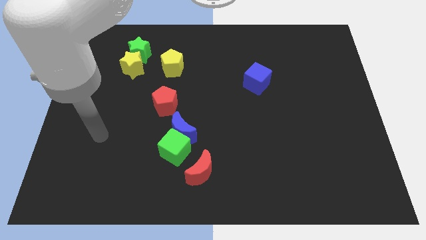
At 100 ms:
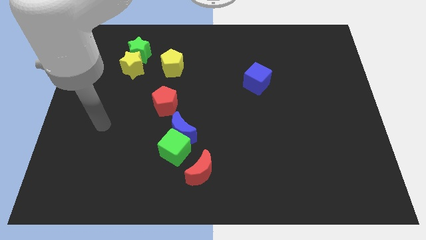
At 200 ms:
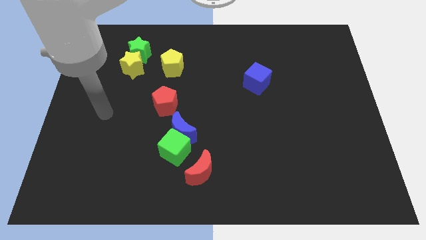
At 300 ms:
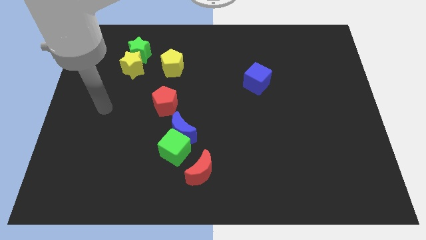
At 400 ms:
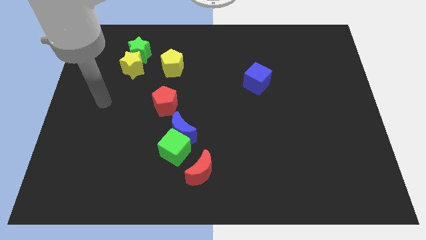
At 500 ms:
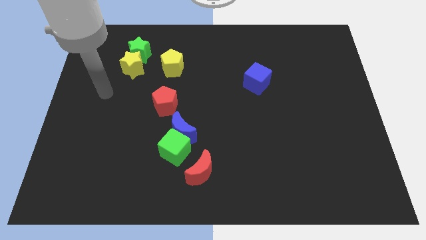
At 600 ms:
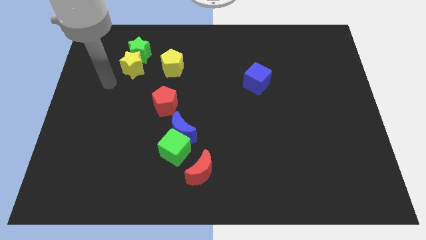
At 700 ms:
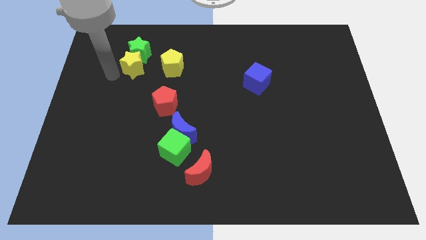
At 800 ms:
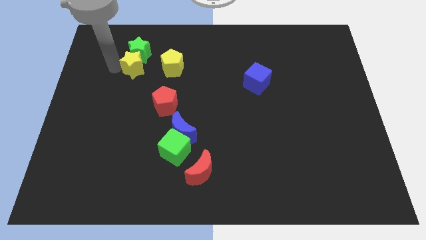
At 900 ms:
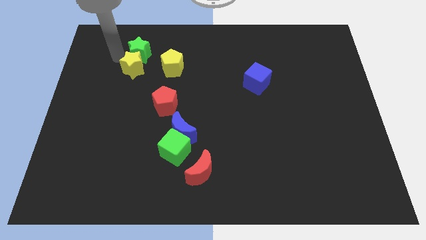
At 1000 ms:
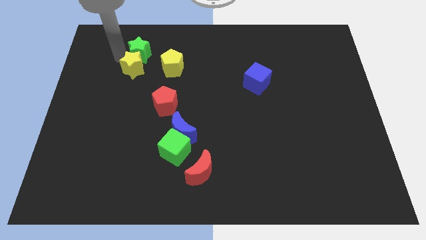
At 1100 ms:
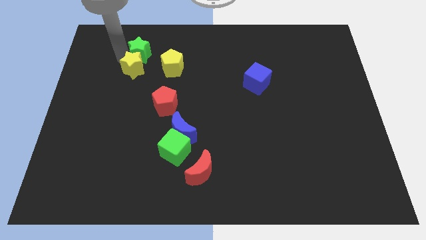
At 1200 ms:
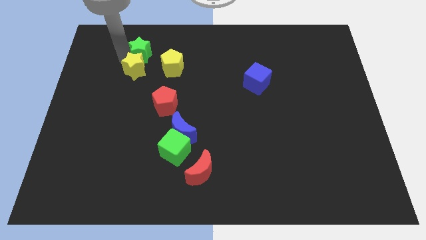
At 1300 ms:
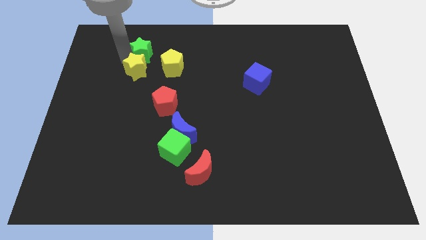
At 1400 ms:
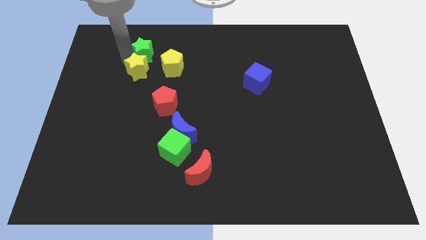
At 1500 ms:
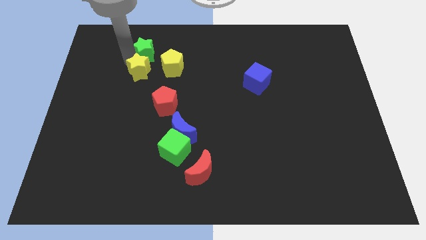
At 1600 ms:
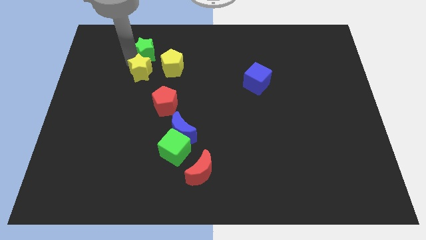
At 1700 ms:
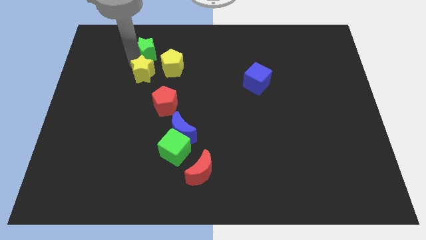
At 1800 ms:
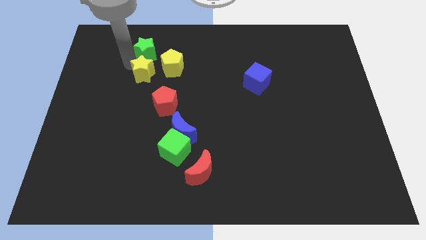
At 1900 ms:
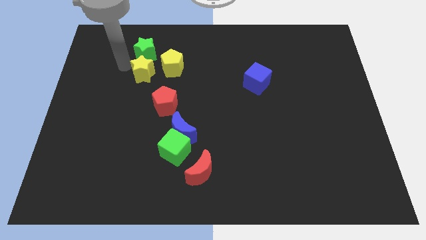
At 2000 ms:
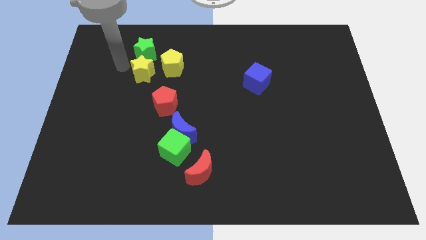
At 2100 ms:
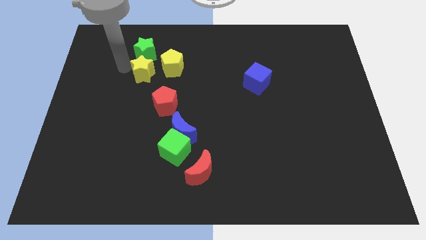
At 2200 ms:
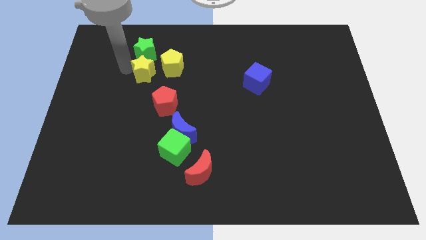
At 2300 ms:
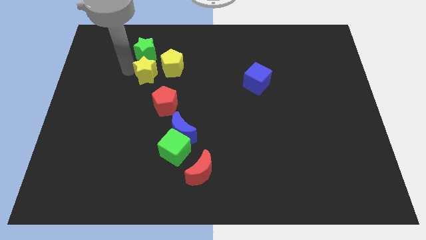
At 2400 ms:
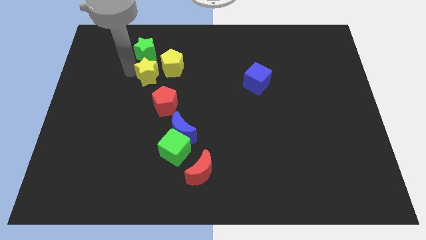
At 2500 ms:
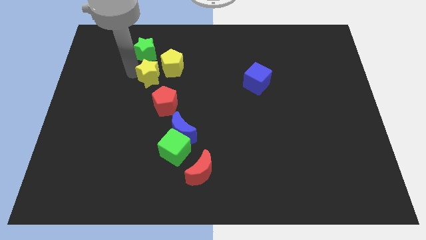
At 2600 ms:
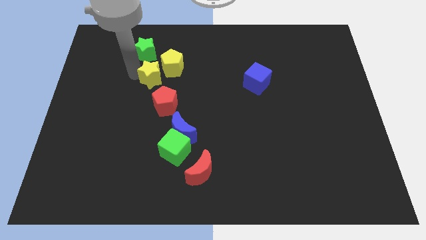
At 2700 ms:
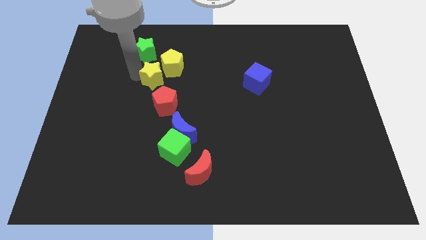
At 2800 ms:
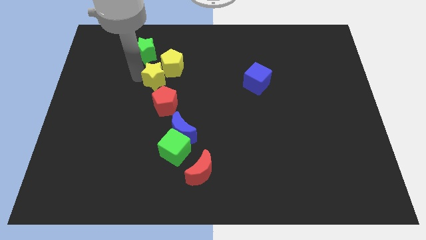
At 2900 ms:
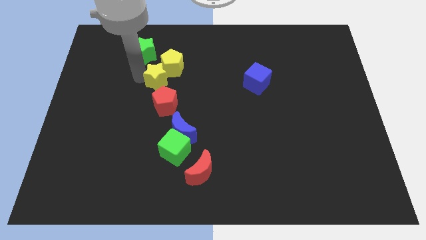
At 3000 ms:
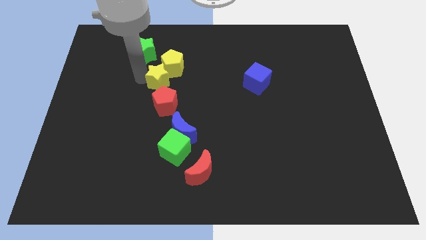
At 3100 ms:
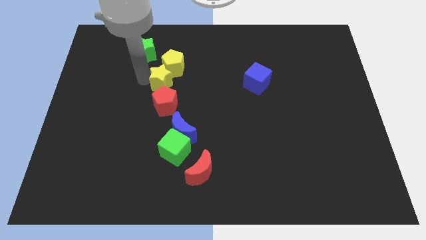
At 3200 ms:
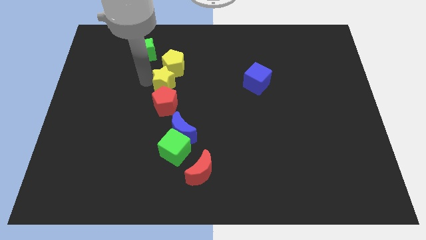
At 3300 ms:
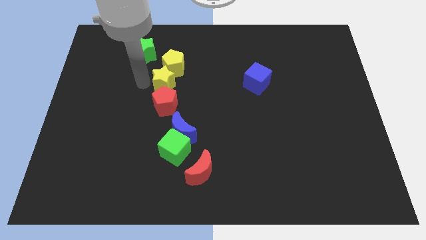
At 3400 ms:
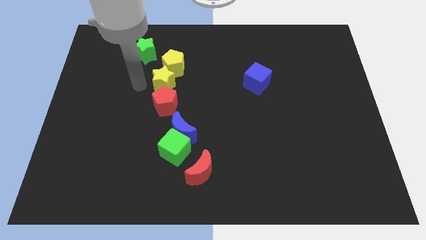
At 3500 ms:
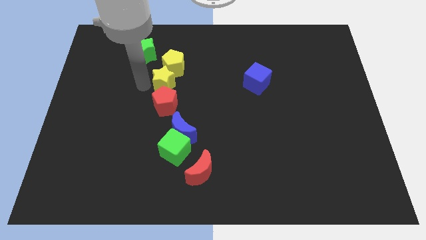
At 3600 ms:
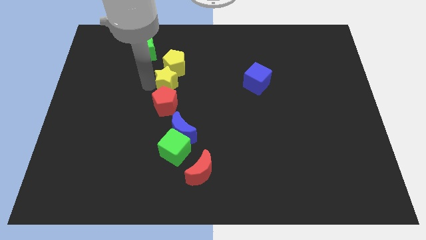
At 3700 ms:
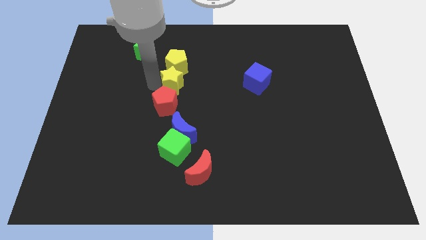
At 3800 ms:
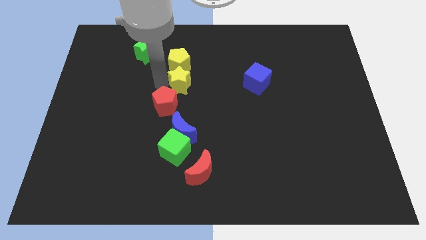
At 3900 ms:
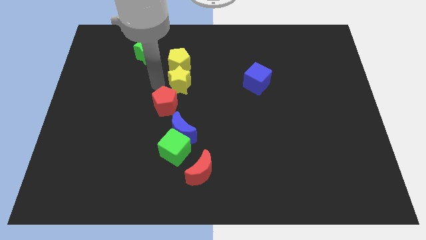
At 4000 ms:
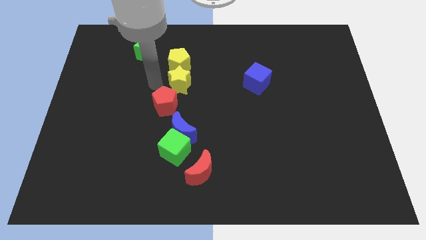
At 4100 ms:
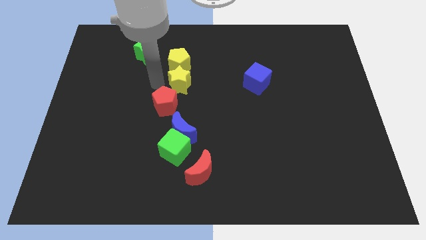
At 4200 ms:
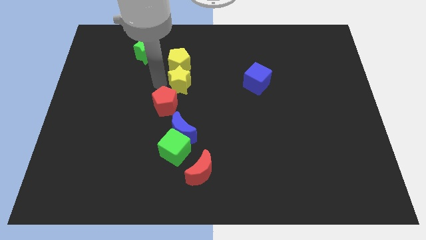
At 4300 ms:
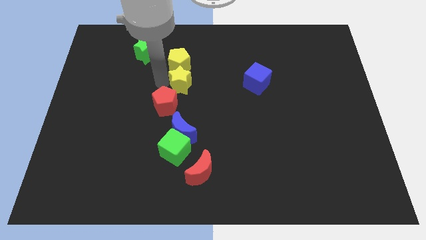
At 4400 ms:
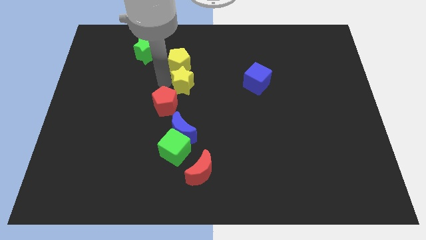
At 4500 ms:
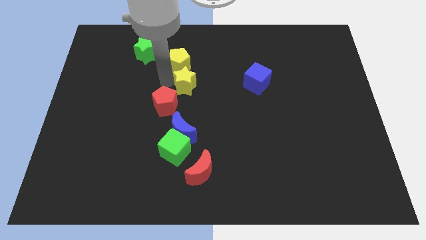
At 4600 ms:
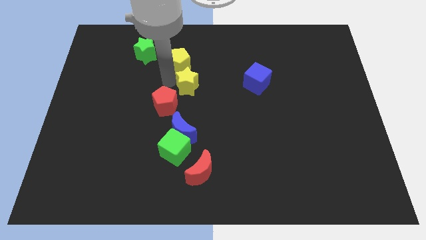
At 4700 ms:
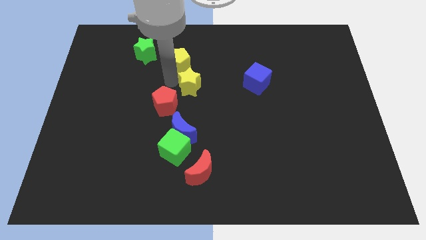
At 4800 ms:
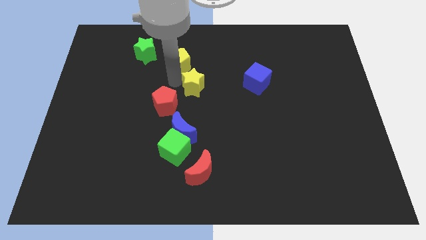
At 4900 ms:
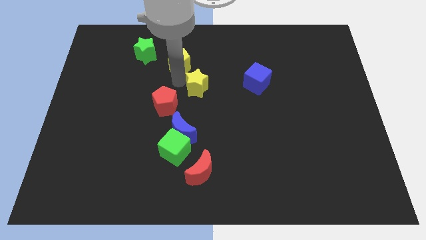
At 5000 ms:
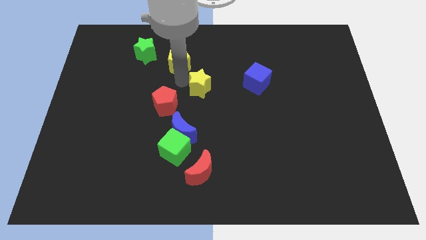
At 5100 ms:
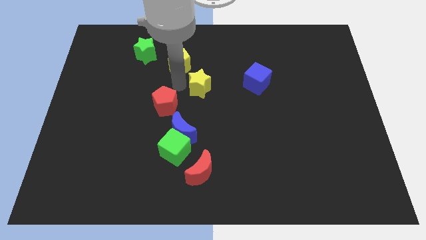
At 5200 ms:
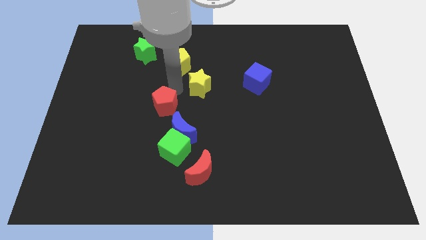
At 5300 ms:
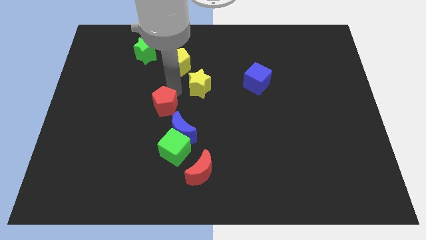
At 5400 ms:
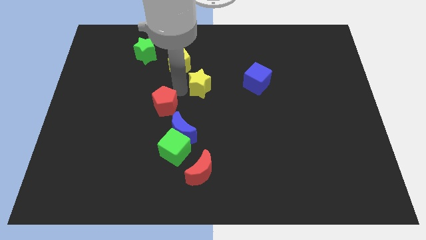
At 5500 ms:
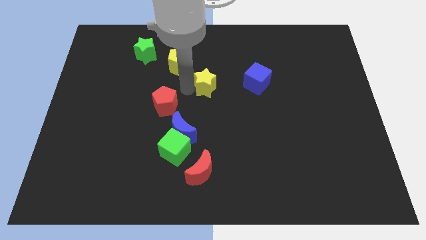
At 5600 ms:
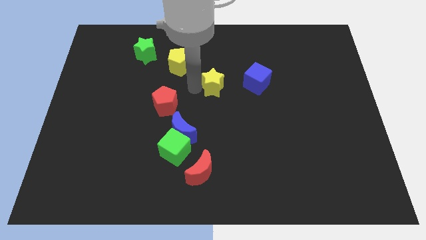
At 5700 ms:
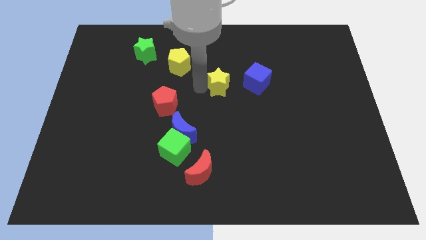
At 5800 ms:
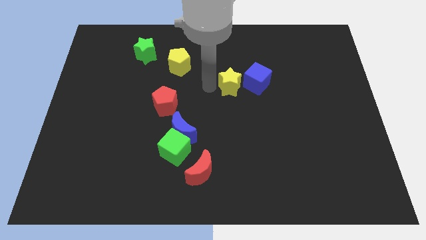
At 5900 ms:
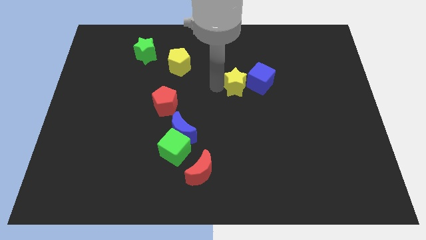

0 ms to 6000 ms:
move the yellow star to the blue cube

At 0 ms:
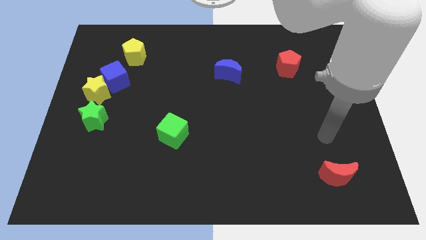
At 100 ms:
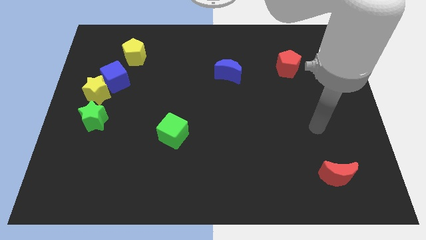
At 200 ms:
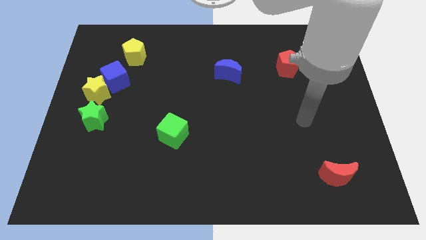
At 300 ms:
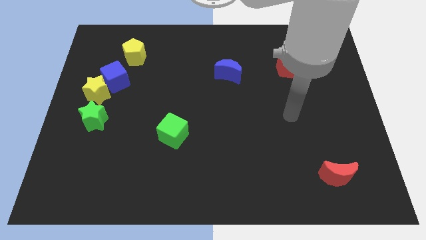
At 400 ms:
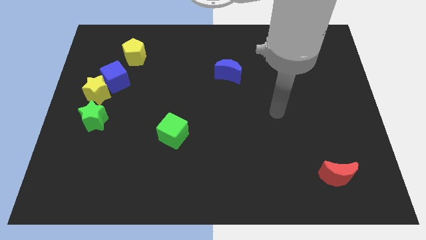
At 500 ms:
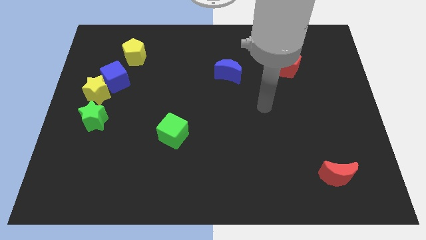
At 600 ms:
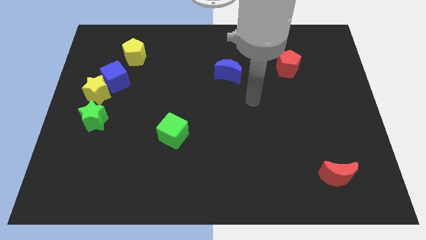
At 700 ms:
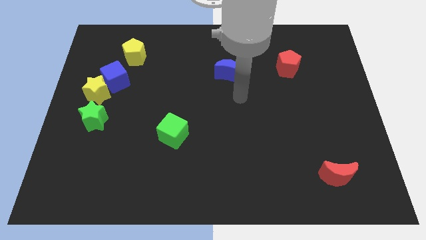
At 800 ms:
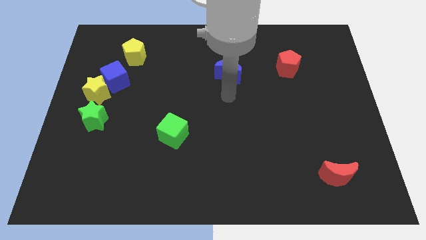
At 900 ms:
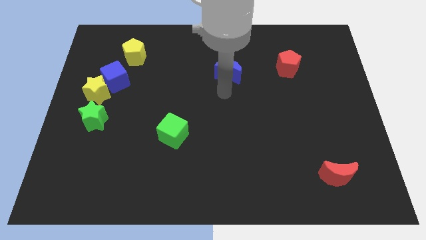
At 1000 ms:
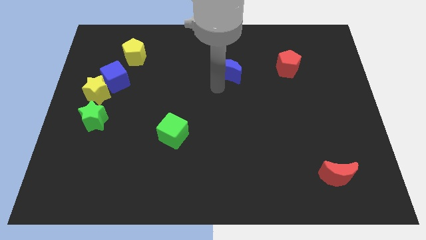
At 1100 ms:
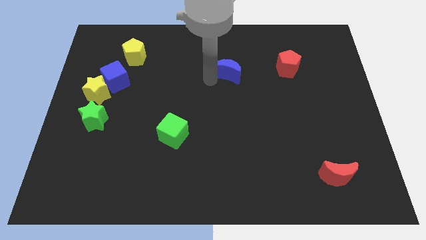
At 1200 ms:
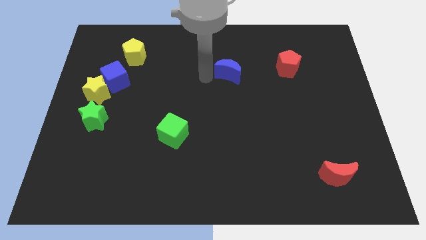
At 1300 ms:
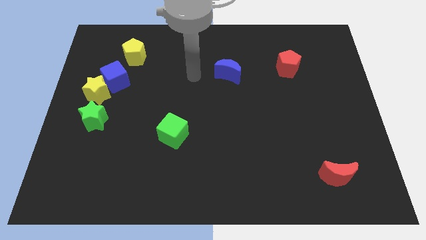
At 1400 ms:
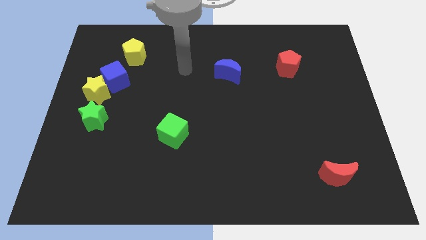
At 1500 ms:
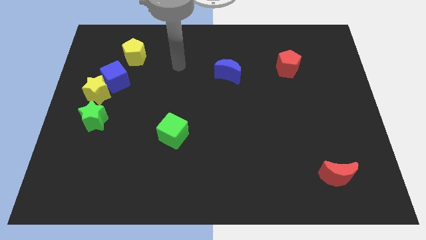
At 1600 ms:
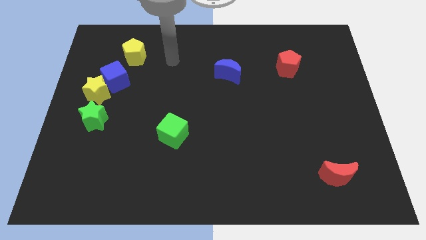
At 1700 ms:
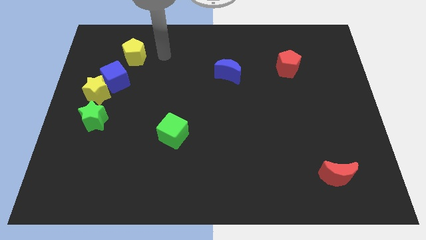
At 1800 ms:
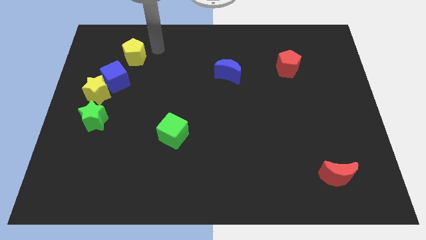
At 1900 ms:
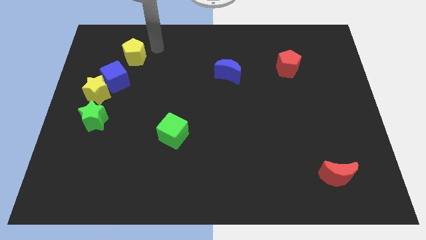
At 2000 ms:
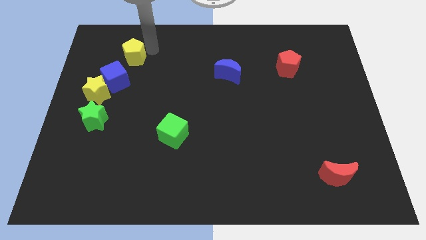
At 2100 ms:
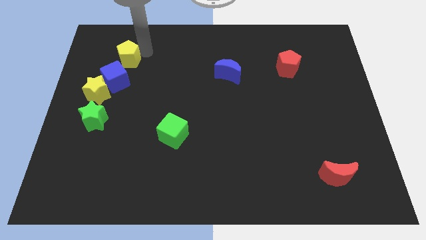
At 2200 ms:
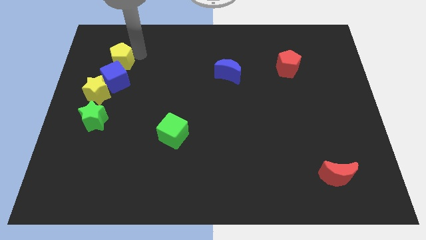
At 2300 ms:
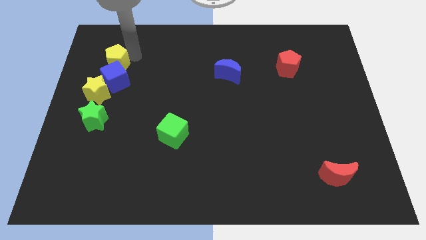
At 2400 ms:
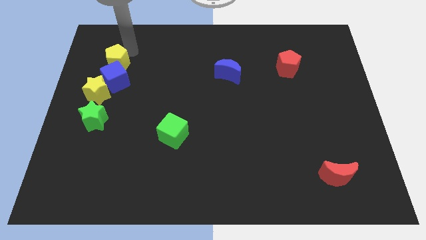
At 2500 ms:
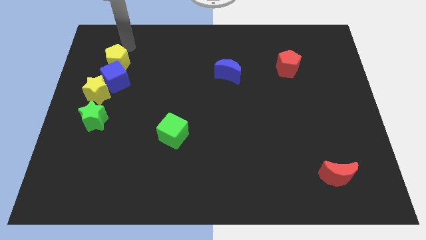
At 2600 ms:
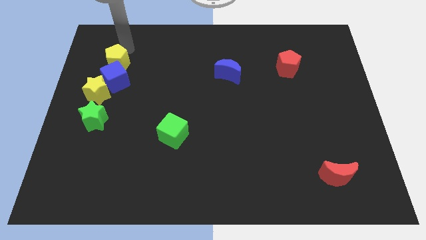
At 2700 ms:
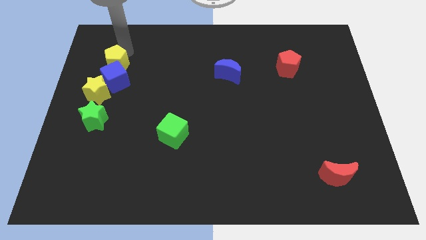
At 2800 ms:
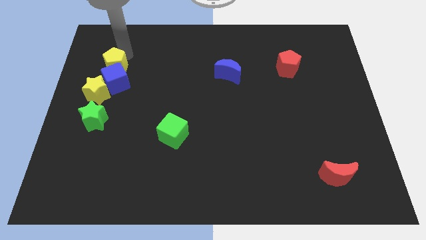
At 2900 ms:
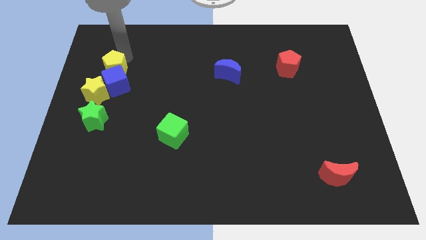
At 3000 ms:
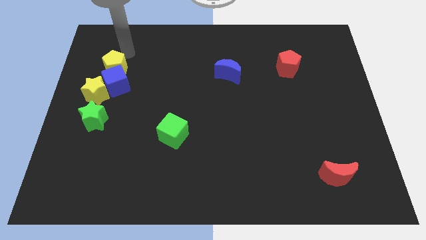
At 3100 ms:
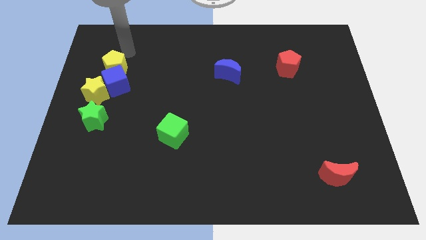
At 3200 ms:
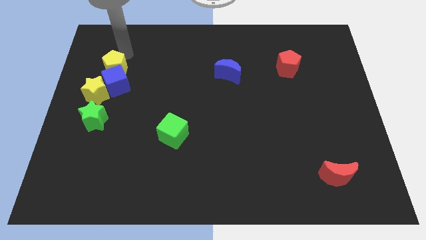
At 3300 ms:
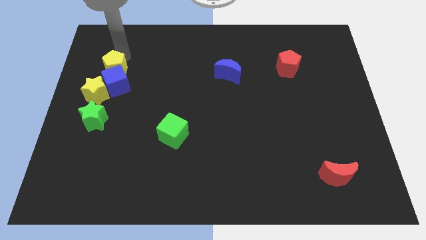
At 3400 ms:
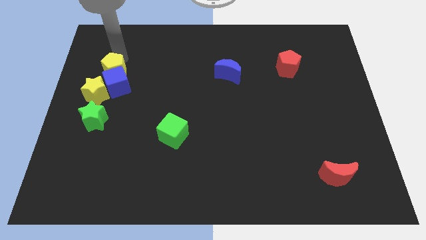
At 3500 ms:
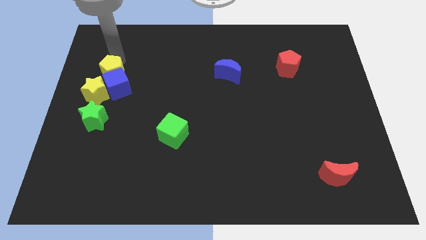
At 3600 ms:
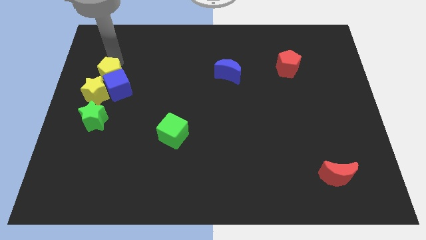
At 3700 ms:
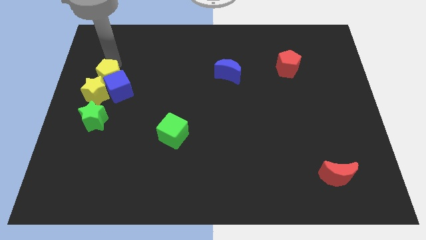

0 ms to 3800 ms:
slide the yellow pentagon to the yellow star
